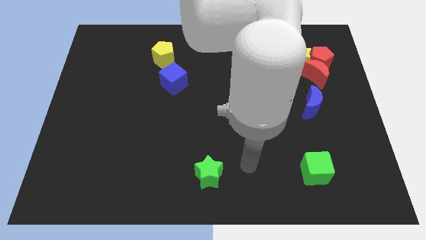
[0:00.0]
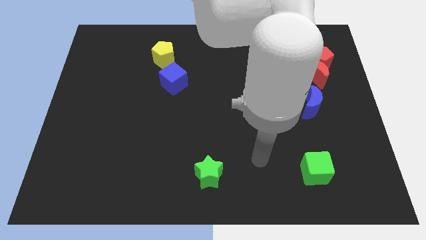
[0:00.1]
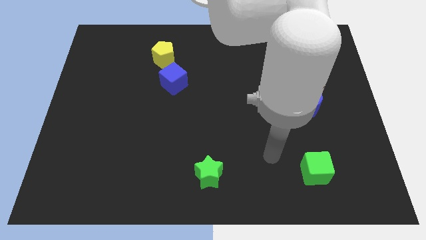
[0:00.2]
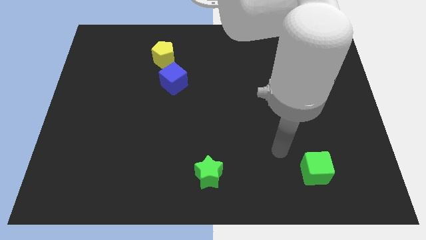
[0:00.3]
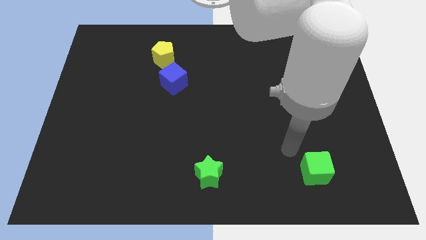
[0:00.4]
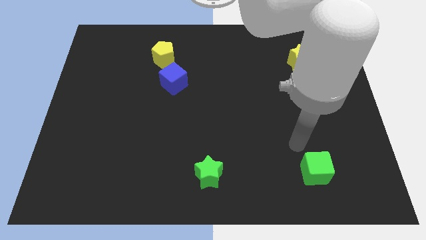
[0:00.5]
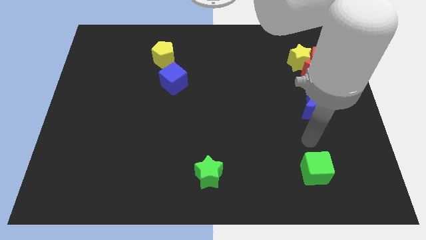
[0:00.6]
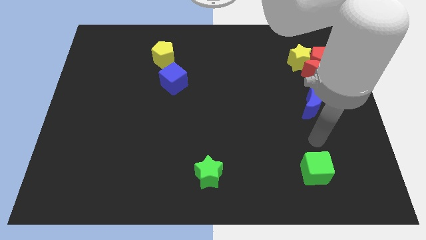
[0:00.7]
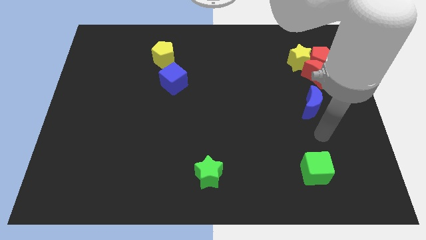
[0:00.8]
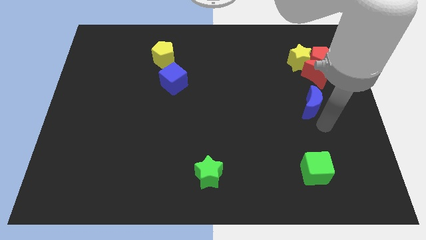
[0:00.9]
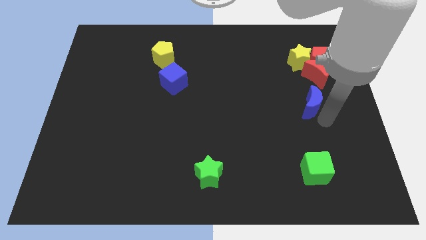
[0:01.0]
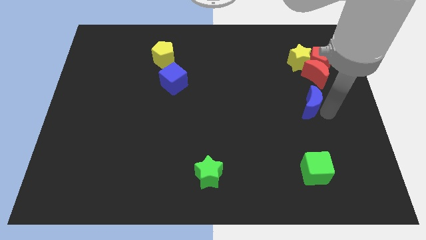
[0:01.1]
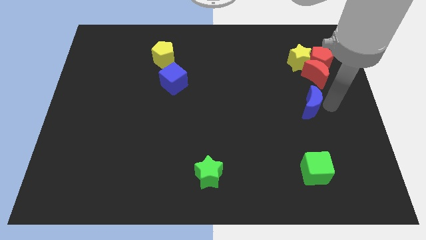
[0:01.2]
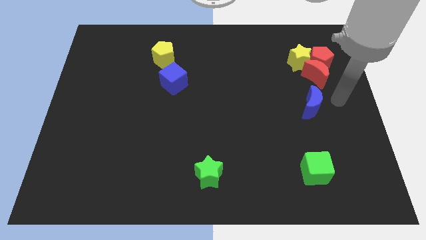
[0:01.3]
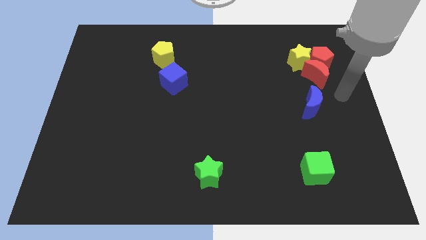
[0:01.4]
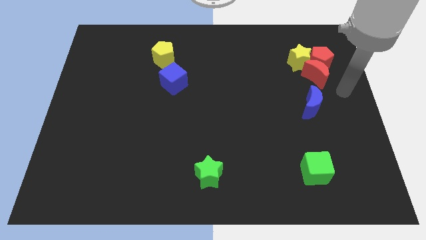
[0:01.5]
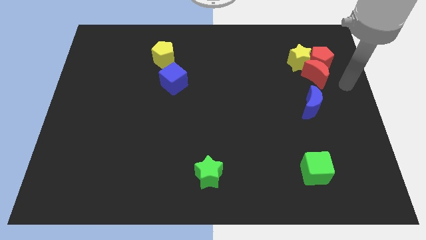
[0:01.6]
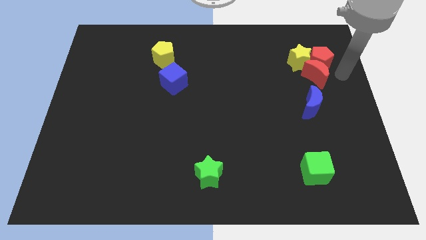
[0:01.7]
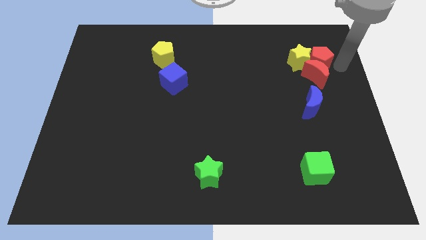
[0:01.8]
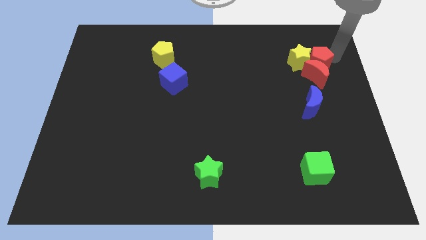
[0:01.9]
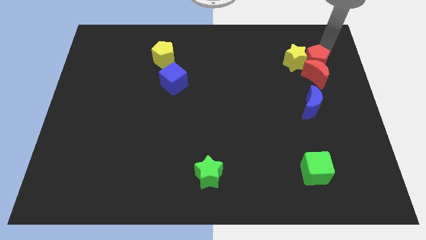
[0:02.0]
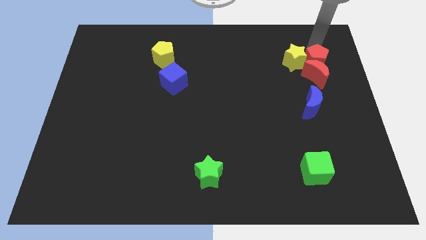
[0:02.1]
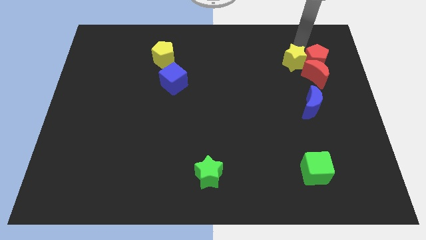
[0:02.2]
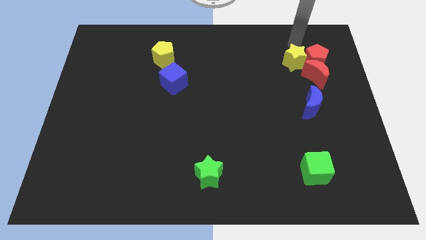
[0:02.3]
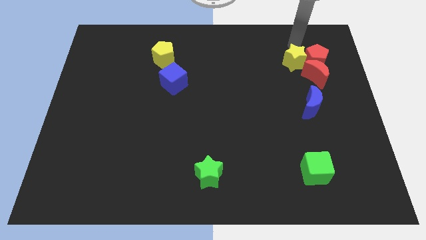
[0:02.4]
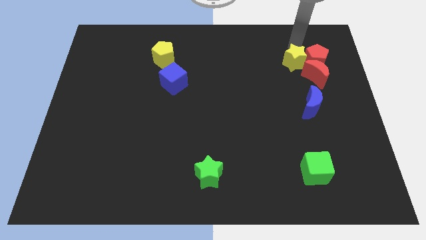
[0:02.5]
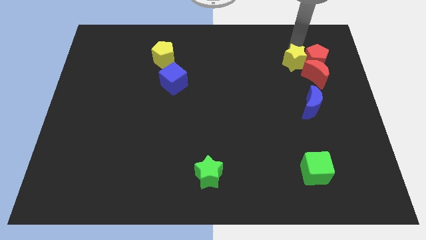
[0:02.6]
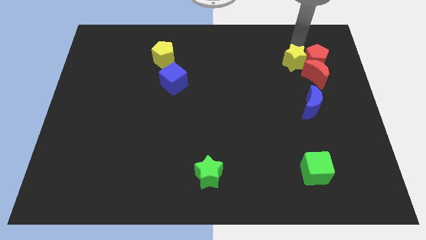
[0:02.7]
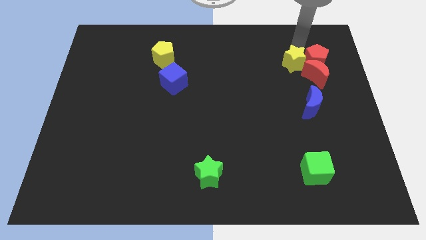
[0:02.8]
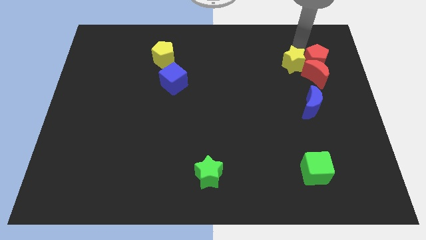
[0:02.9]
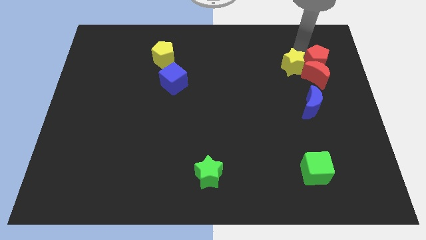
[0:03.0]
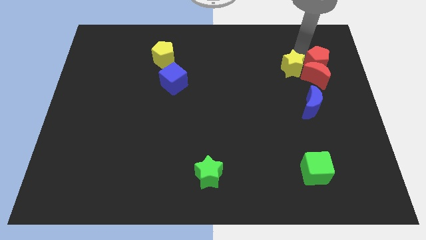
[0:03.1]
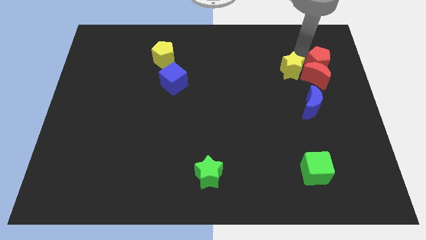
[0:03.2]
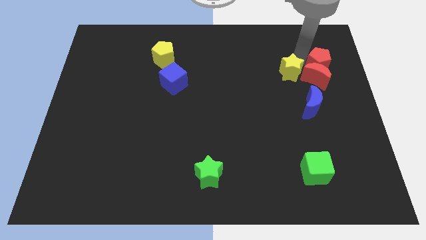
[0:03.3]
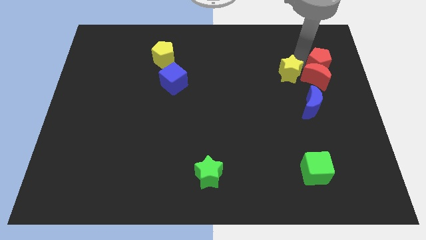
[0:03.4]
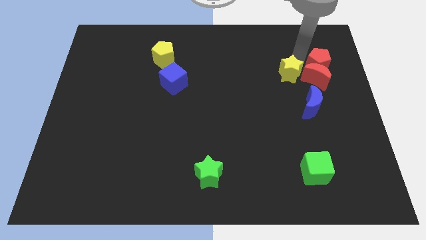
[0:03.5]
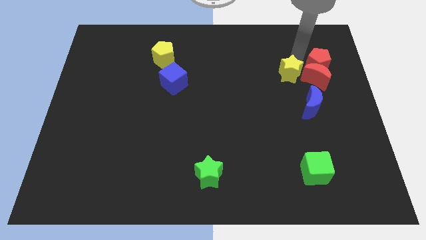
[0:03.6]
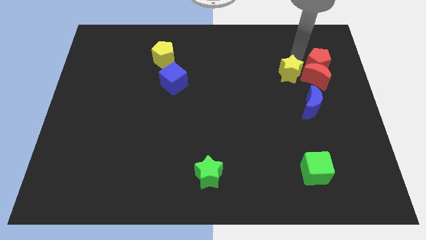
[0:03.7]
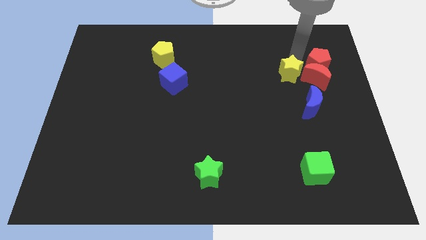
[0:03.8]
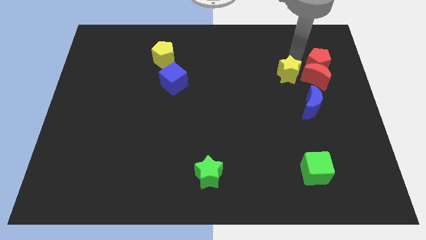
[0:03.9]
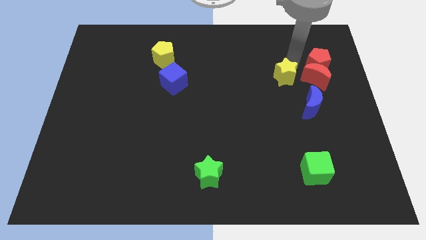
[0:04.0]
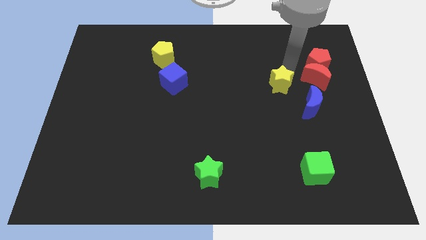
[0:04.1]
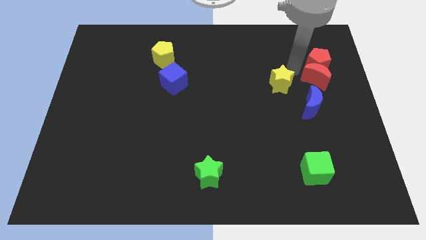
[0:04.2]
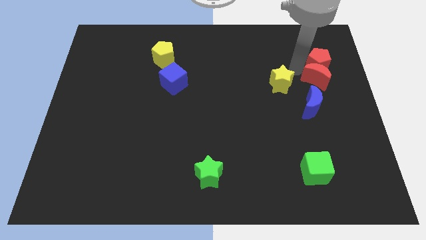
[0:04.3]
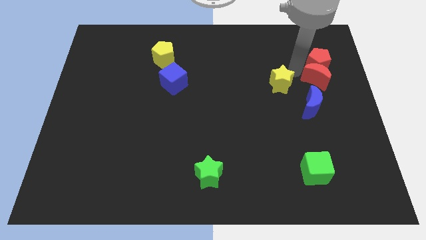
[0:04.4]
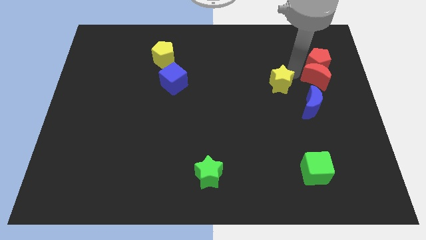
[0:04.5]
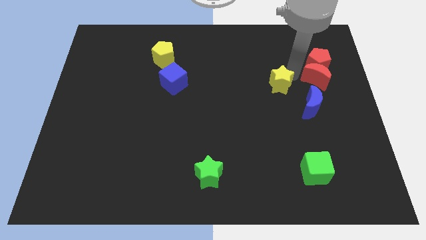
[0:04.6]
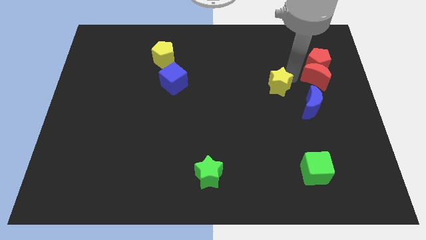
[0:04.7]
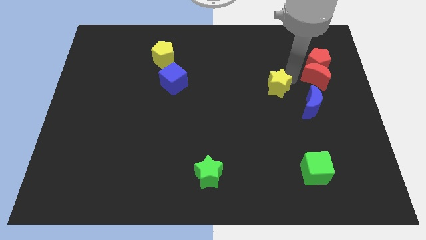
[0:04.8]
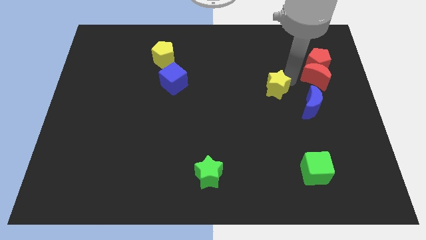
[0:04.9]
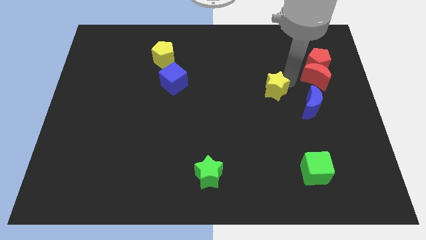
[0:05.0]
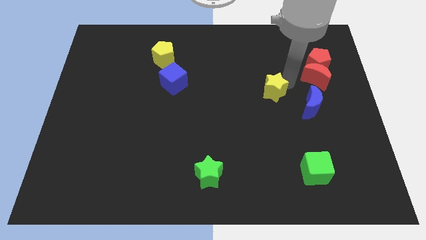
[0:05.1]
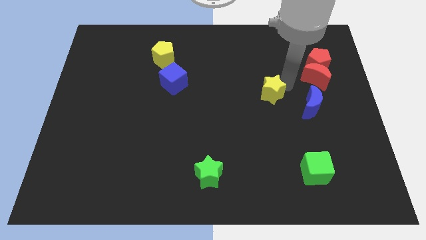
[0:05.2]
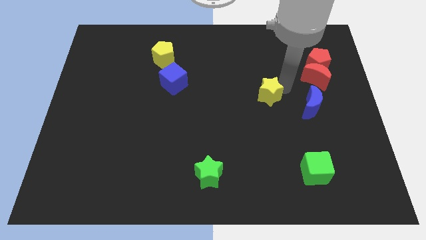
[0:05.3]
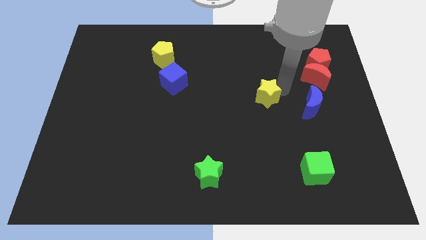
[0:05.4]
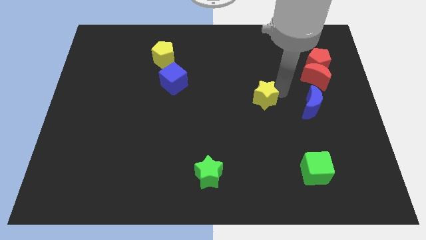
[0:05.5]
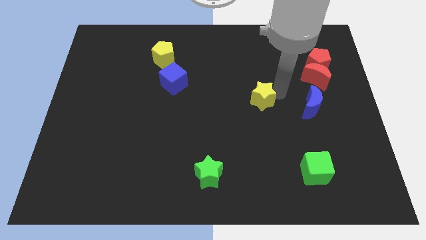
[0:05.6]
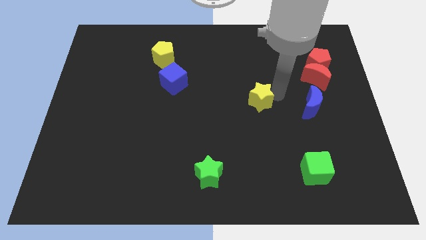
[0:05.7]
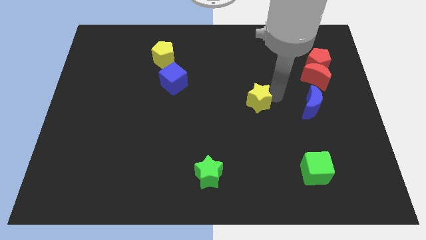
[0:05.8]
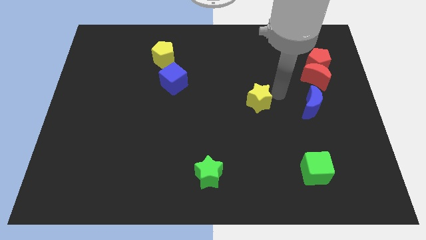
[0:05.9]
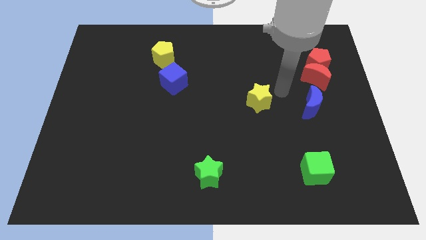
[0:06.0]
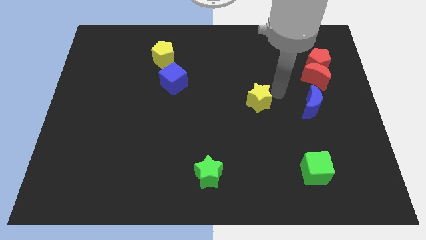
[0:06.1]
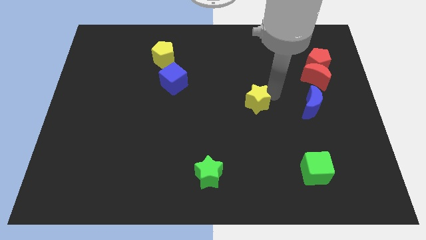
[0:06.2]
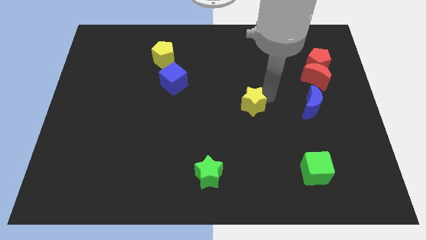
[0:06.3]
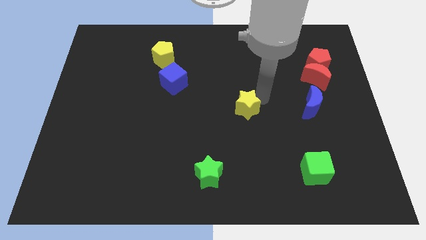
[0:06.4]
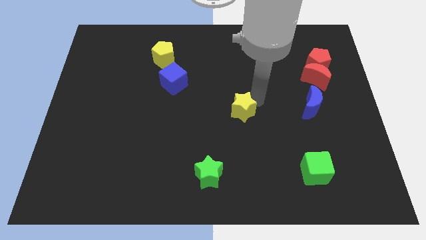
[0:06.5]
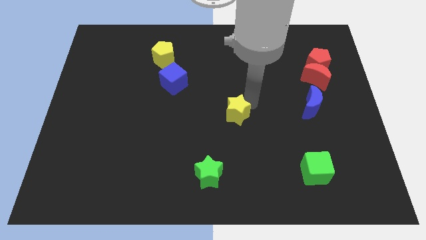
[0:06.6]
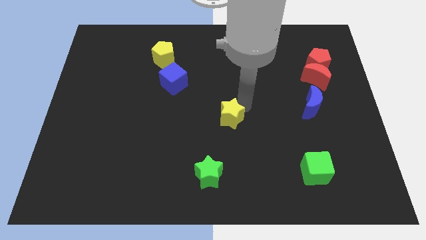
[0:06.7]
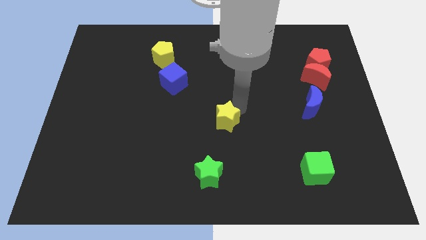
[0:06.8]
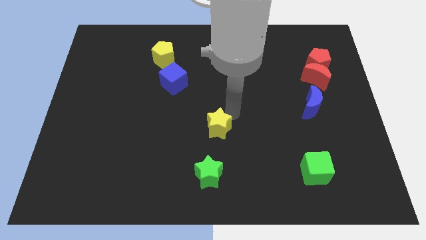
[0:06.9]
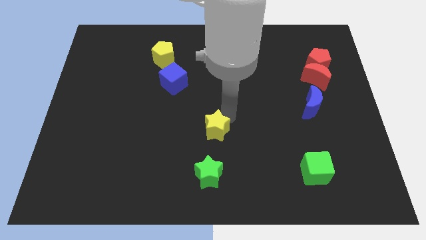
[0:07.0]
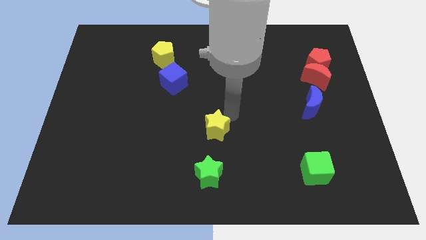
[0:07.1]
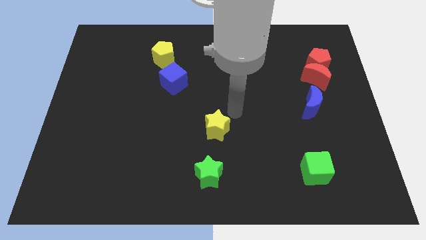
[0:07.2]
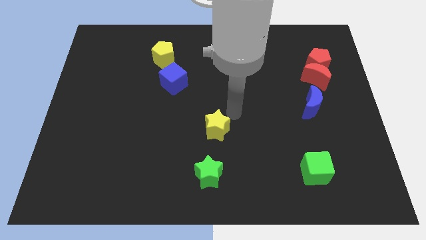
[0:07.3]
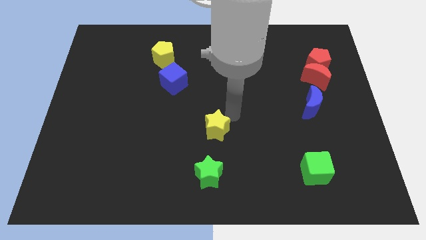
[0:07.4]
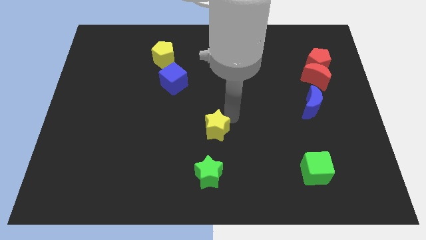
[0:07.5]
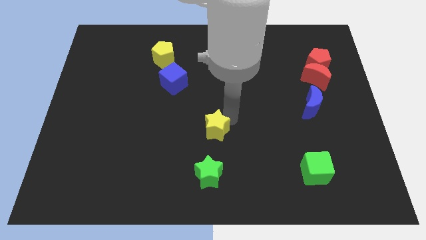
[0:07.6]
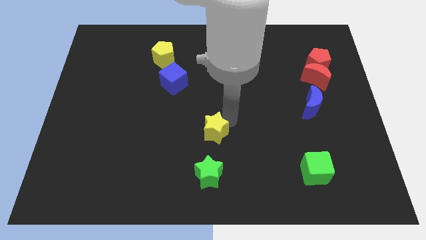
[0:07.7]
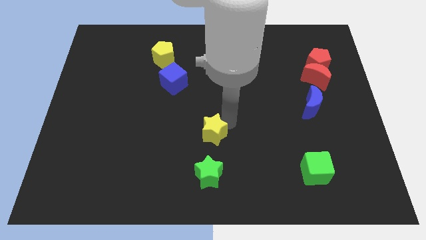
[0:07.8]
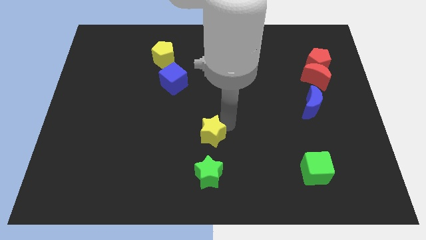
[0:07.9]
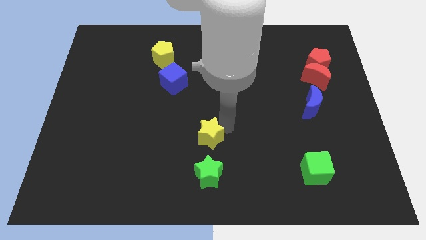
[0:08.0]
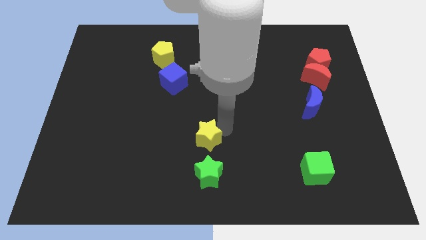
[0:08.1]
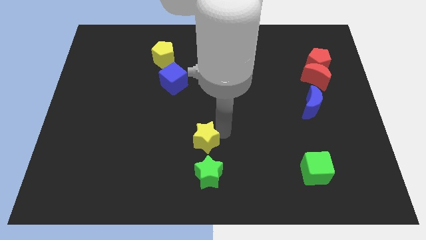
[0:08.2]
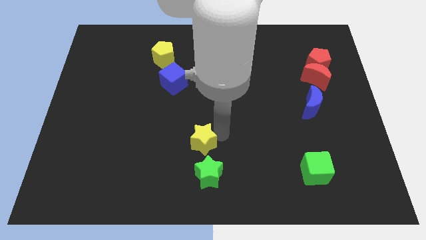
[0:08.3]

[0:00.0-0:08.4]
put the yellow star to the top left of the green star
